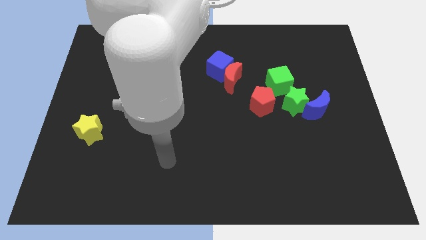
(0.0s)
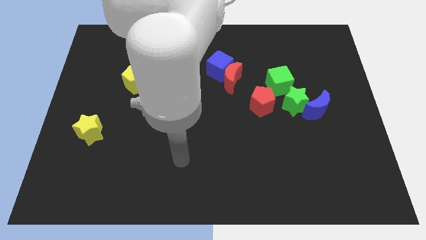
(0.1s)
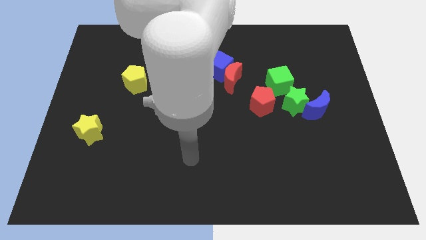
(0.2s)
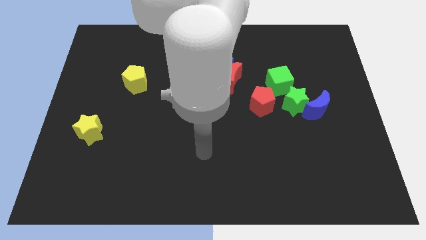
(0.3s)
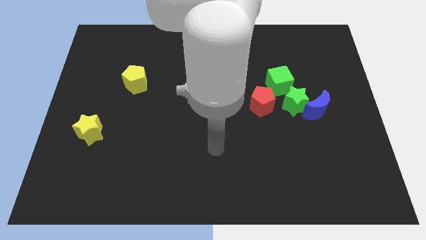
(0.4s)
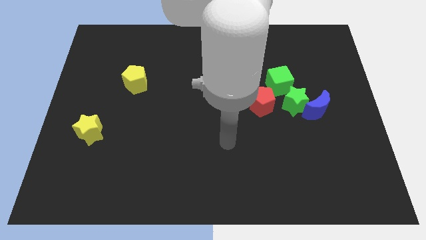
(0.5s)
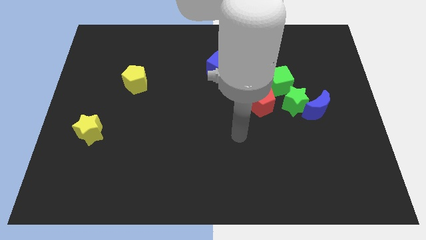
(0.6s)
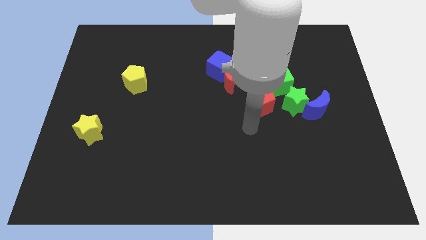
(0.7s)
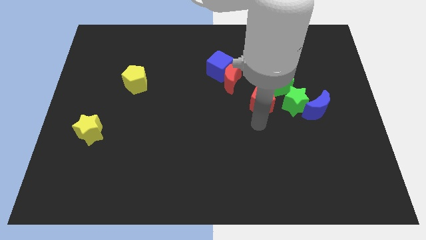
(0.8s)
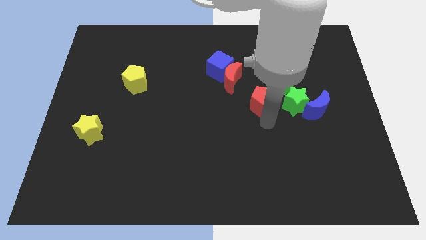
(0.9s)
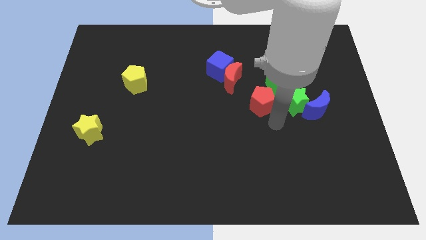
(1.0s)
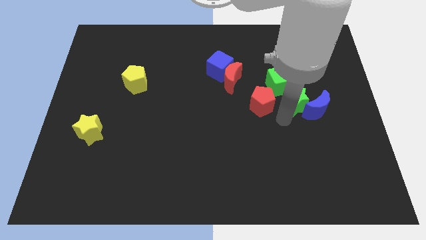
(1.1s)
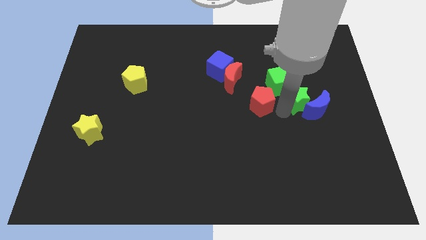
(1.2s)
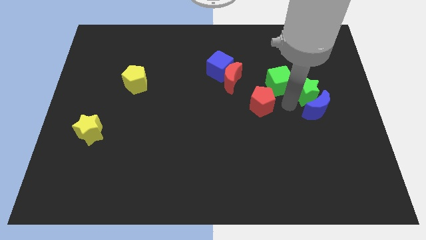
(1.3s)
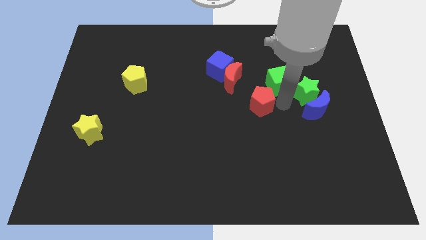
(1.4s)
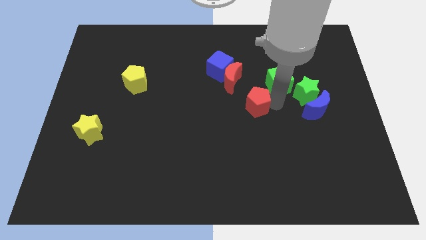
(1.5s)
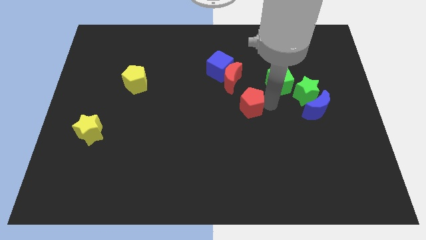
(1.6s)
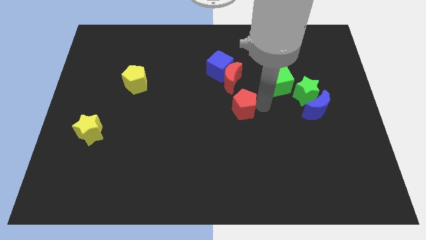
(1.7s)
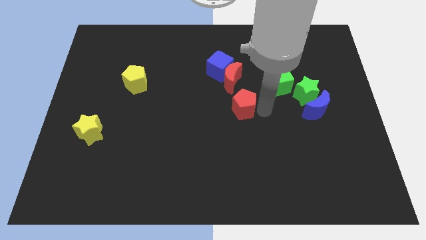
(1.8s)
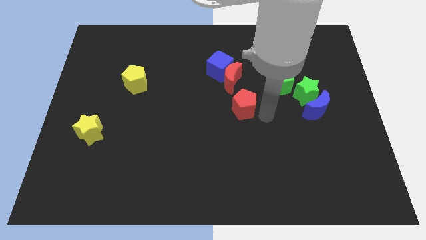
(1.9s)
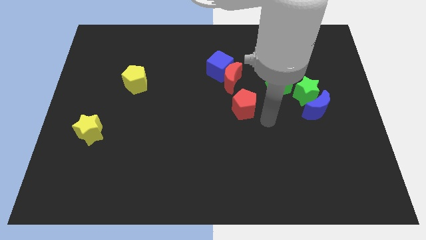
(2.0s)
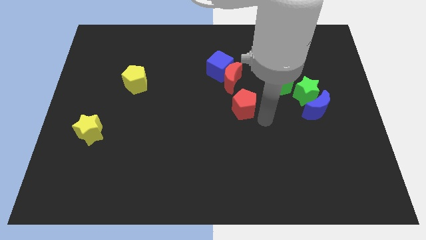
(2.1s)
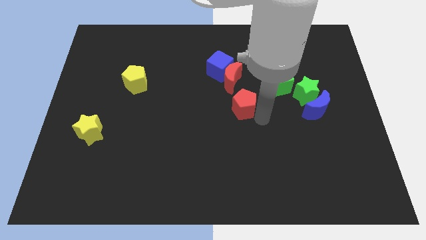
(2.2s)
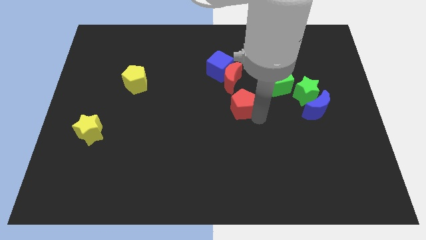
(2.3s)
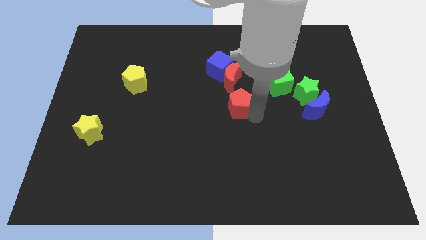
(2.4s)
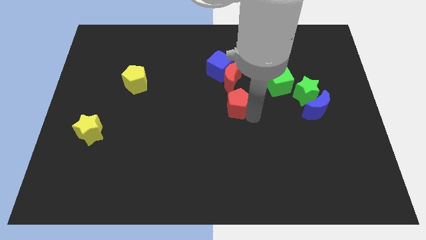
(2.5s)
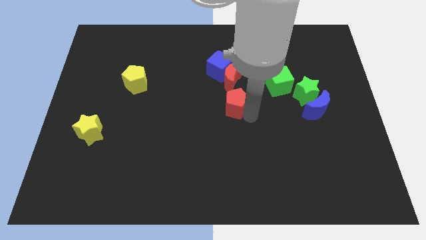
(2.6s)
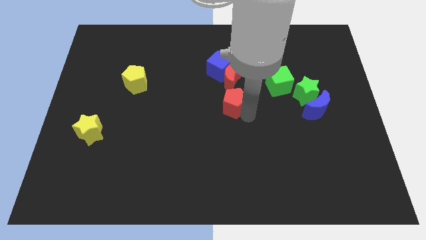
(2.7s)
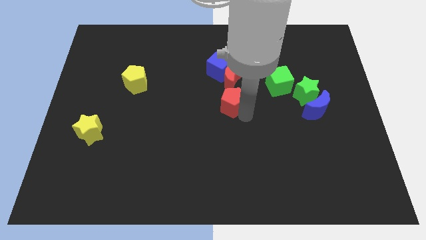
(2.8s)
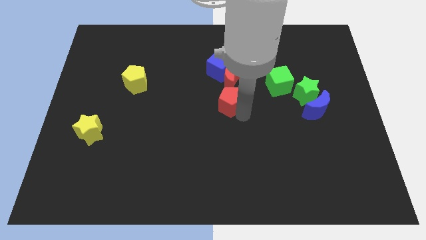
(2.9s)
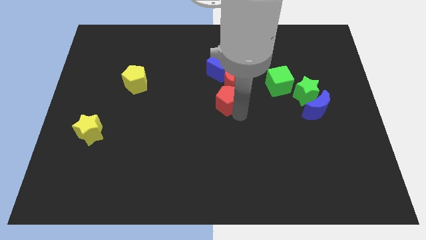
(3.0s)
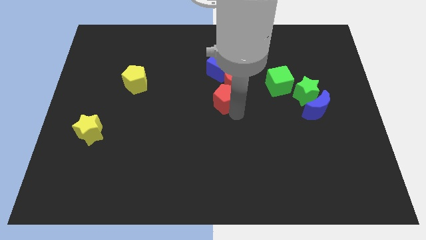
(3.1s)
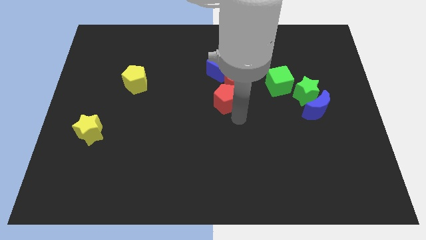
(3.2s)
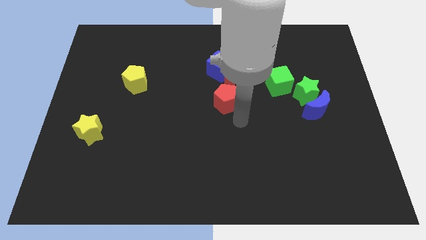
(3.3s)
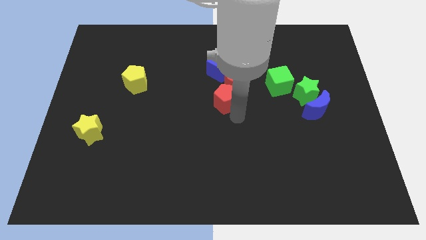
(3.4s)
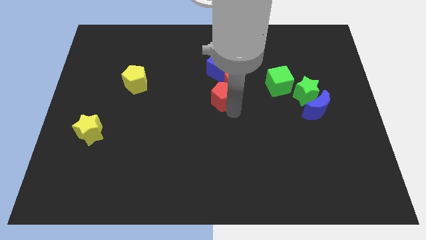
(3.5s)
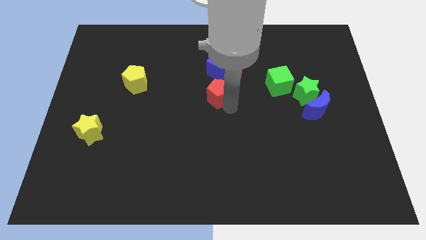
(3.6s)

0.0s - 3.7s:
slightly slide the red pentagon diagonally upwards and to the left

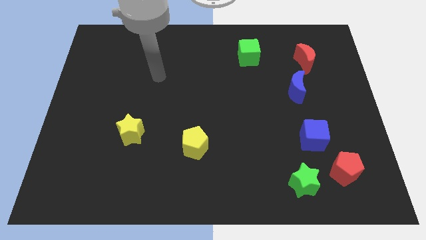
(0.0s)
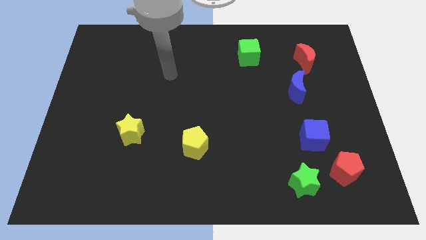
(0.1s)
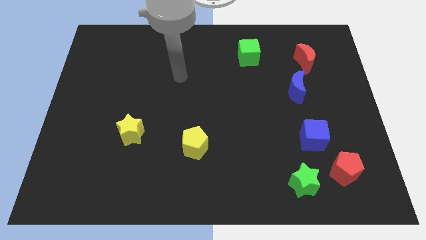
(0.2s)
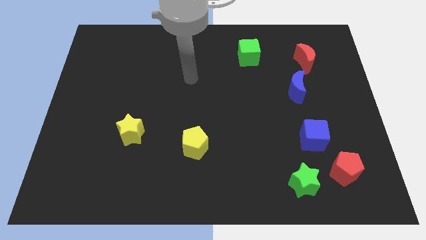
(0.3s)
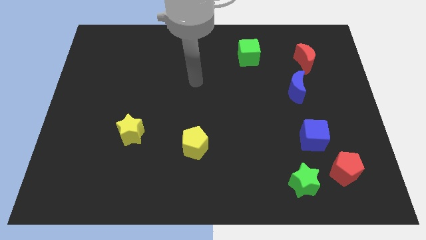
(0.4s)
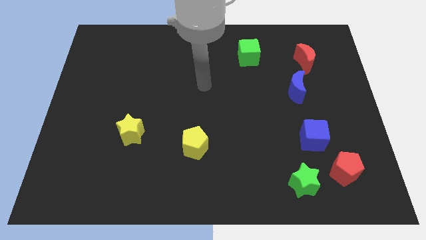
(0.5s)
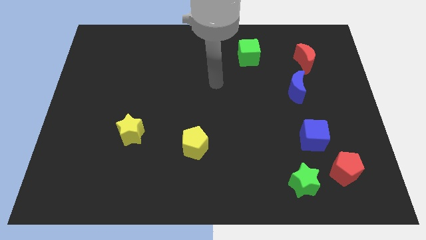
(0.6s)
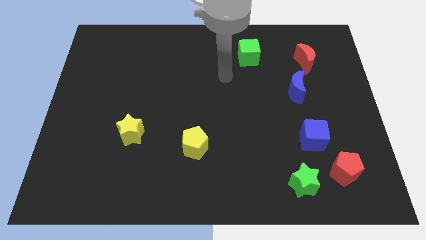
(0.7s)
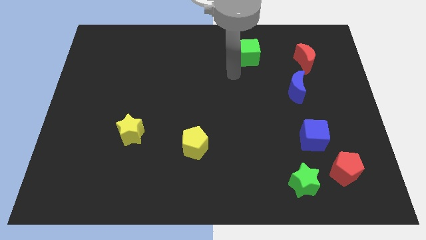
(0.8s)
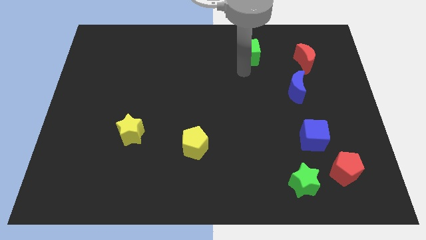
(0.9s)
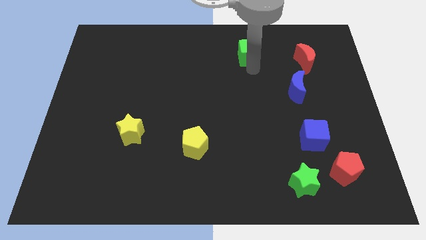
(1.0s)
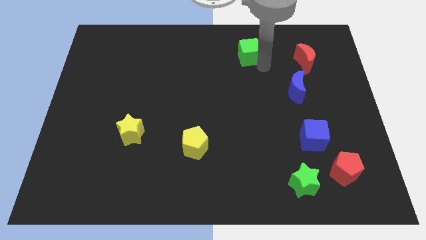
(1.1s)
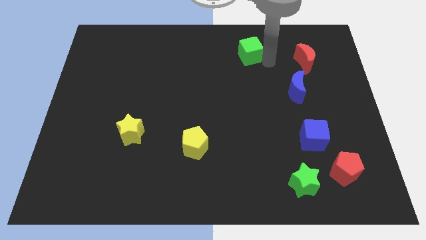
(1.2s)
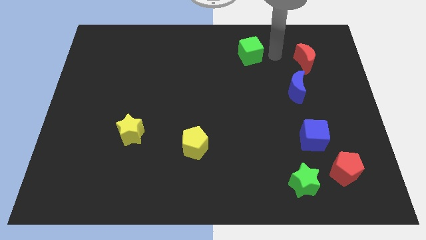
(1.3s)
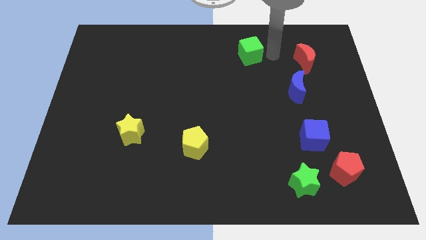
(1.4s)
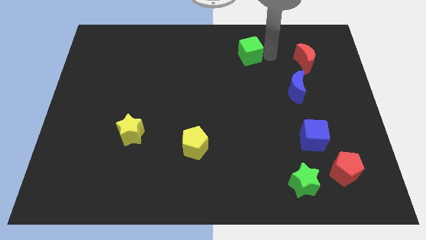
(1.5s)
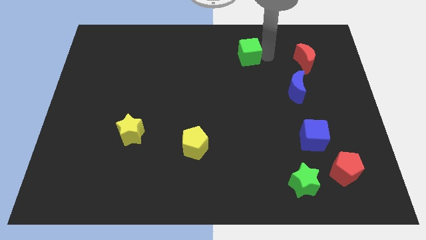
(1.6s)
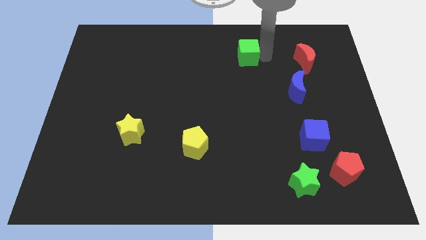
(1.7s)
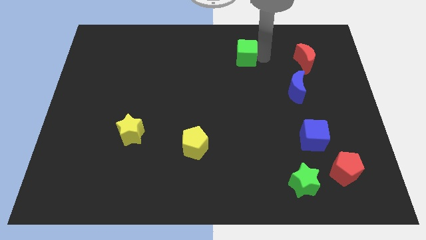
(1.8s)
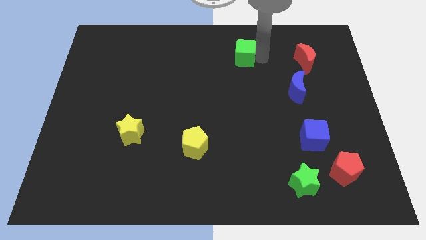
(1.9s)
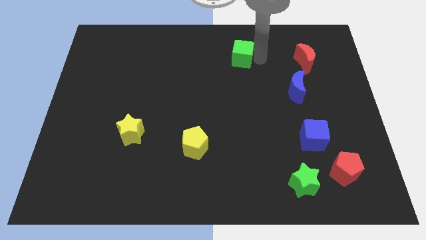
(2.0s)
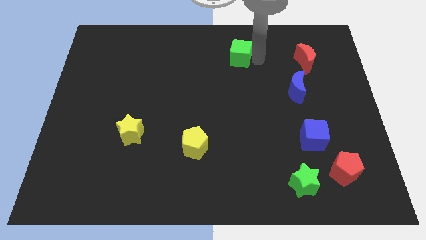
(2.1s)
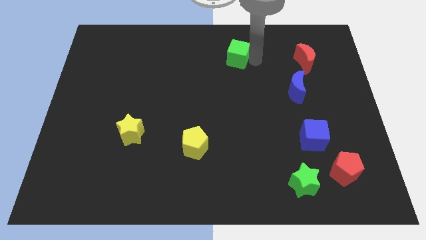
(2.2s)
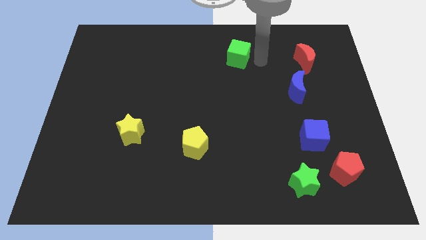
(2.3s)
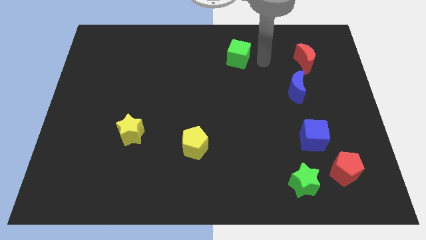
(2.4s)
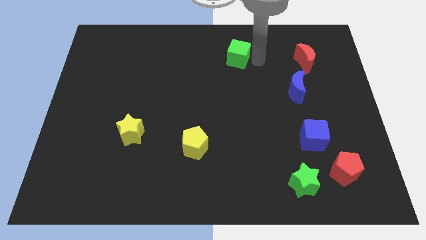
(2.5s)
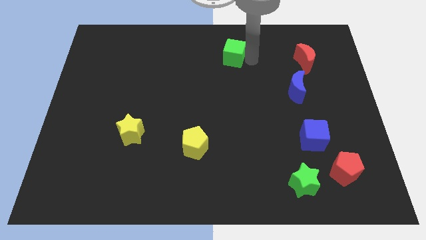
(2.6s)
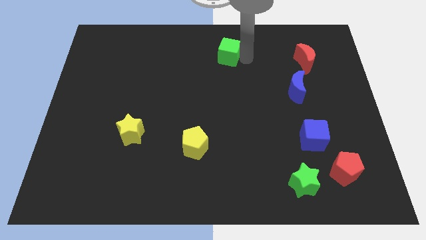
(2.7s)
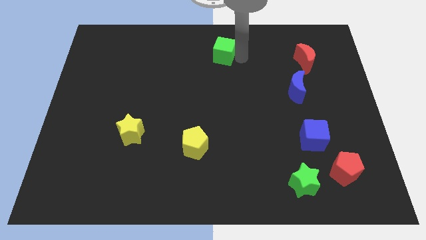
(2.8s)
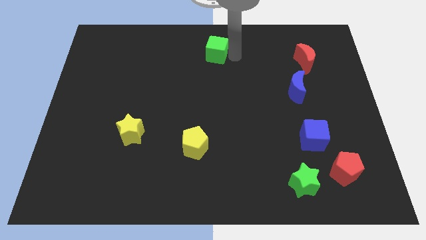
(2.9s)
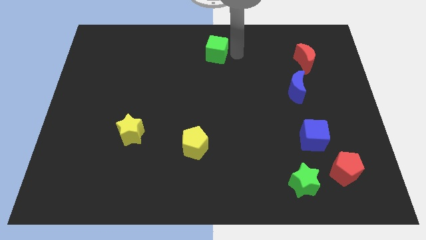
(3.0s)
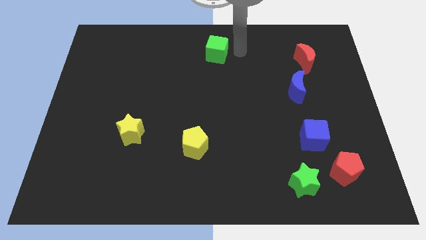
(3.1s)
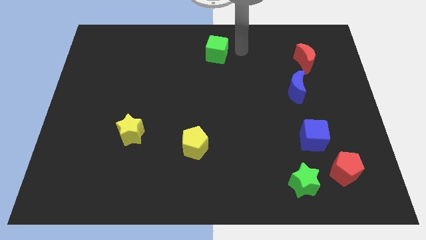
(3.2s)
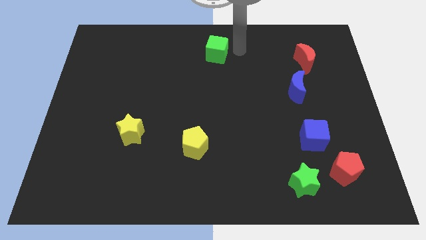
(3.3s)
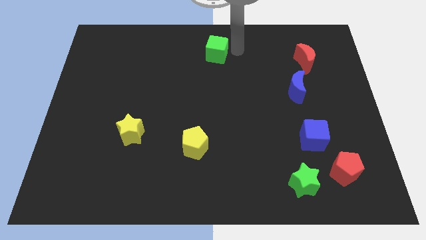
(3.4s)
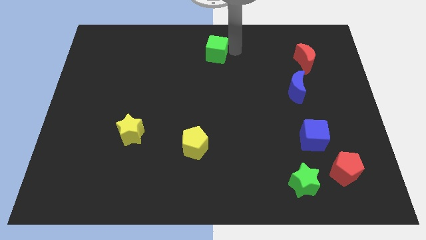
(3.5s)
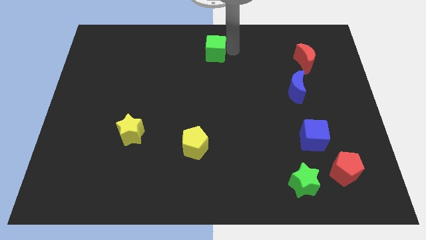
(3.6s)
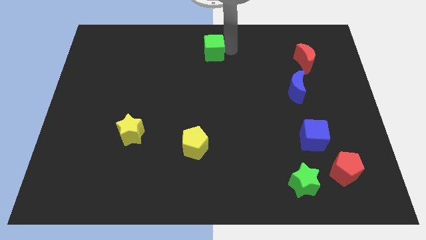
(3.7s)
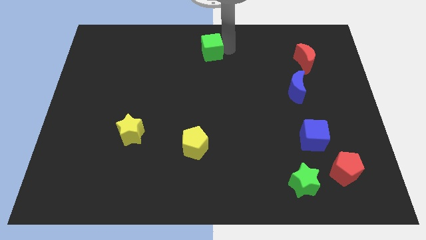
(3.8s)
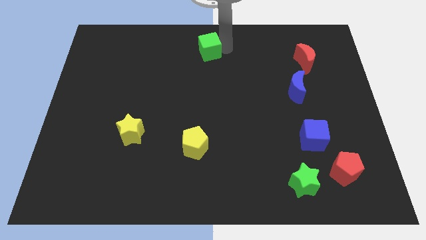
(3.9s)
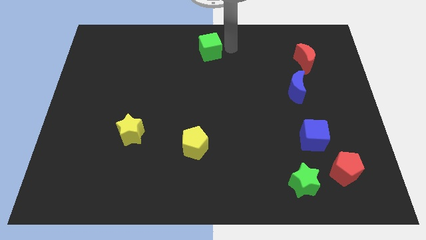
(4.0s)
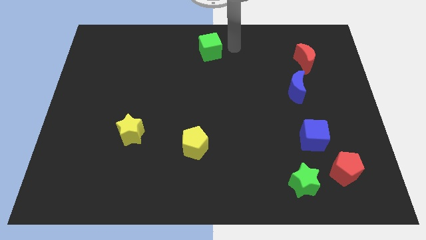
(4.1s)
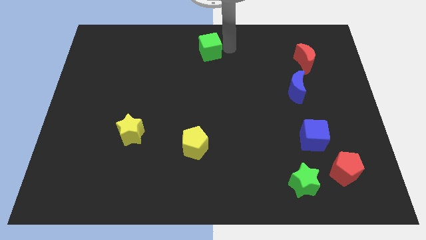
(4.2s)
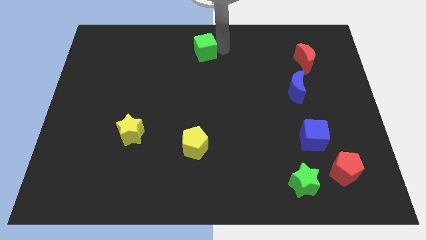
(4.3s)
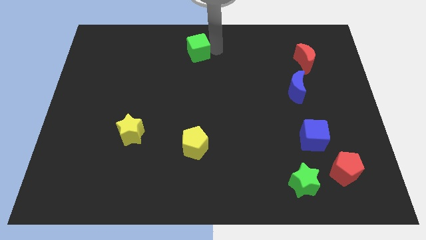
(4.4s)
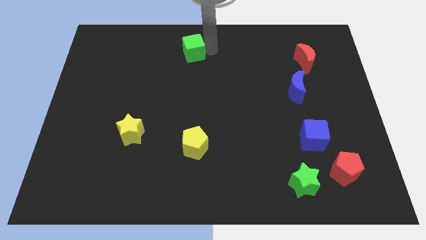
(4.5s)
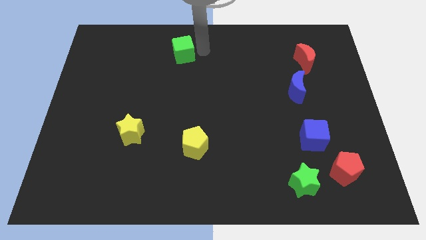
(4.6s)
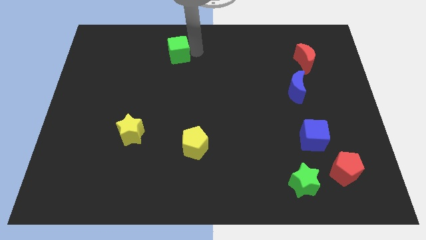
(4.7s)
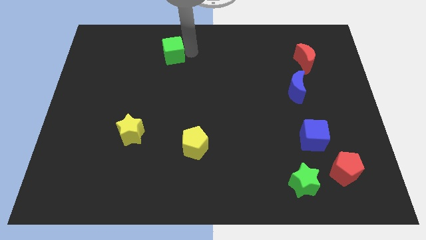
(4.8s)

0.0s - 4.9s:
move the green cube to the left
